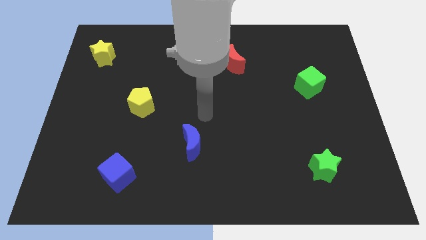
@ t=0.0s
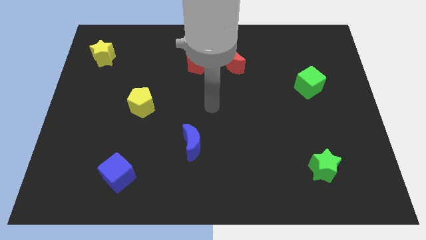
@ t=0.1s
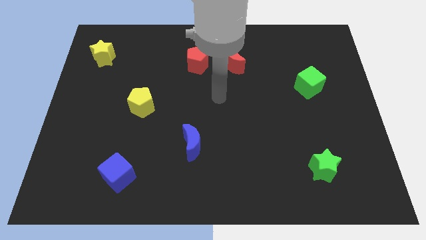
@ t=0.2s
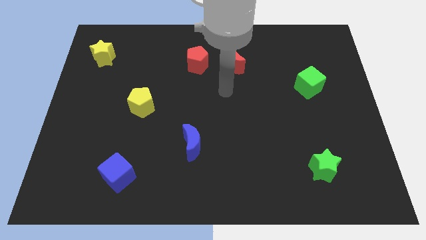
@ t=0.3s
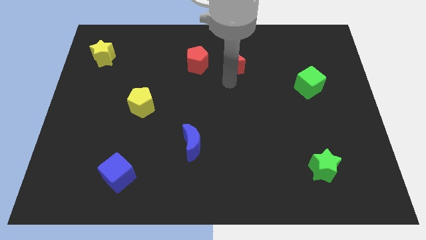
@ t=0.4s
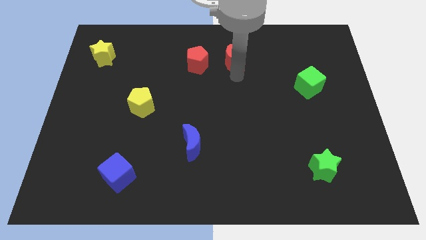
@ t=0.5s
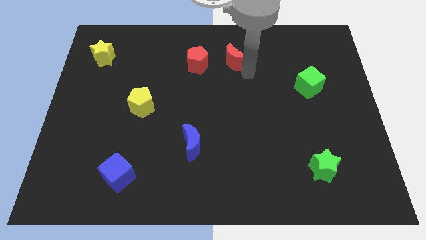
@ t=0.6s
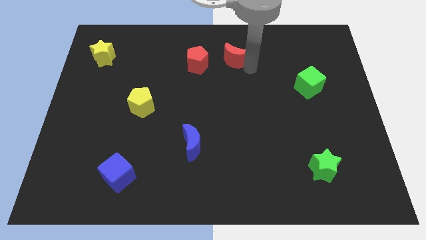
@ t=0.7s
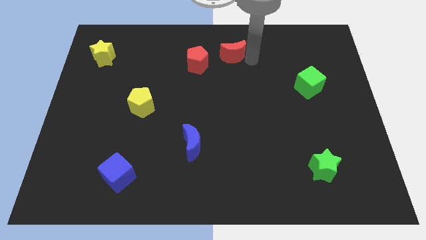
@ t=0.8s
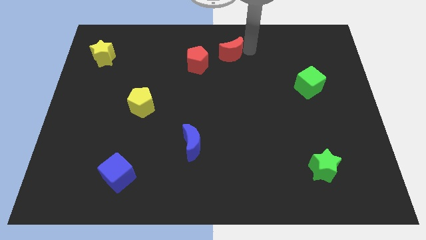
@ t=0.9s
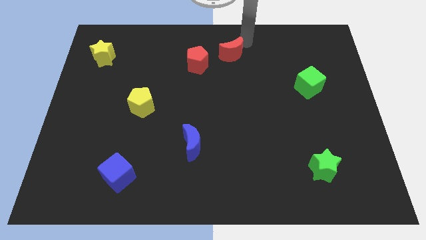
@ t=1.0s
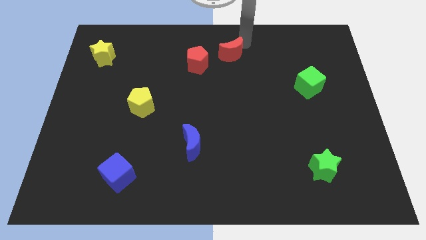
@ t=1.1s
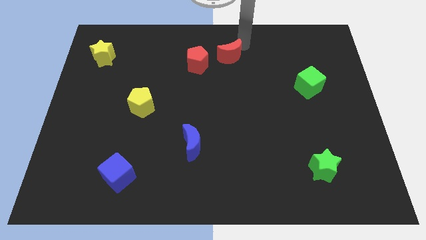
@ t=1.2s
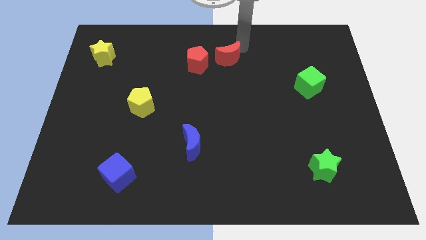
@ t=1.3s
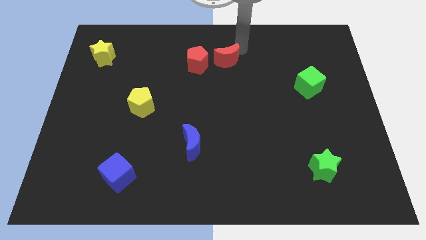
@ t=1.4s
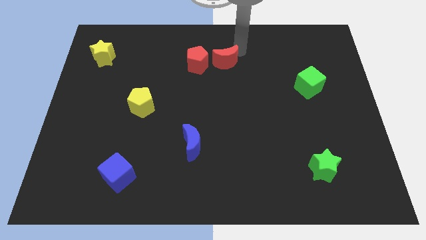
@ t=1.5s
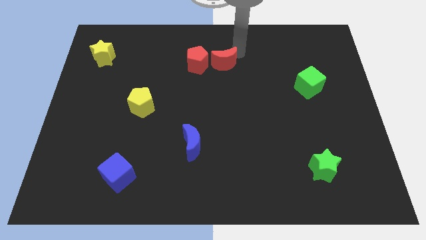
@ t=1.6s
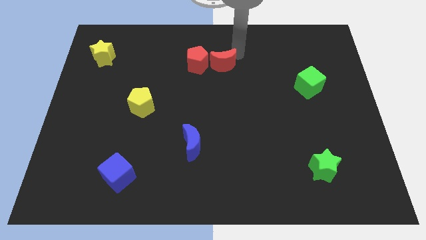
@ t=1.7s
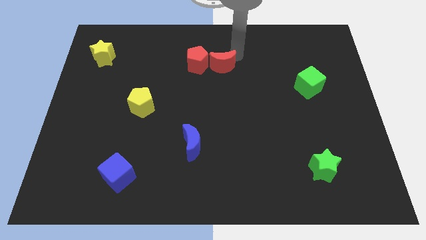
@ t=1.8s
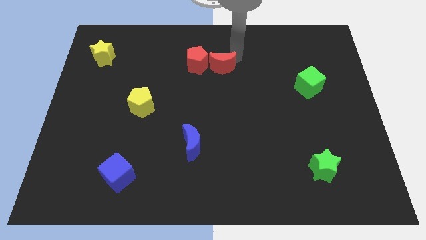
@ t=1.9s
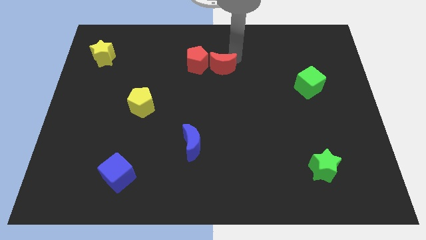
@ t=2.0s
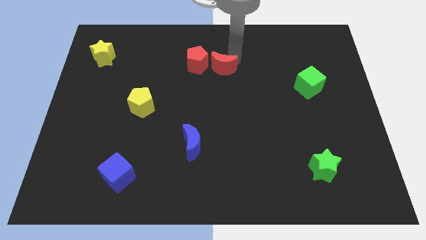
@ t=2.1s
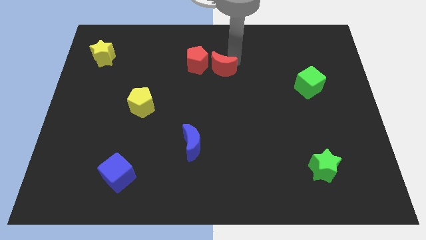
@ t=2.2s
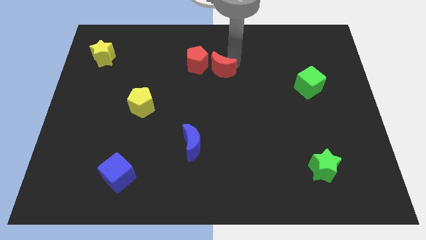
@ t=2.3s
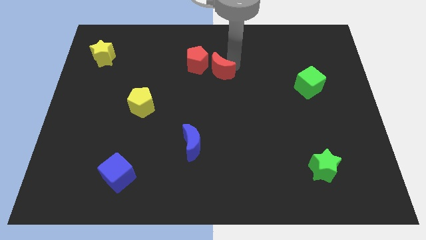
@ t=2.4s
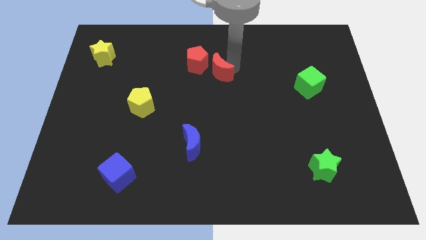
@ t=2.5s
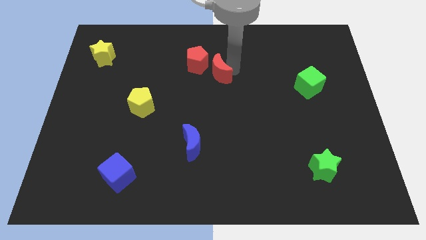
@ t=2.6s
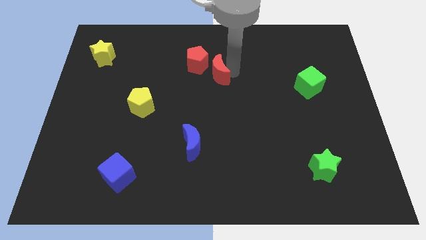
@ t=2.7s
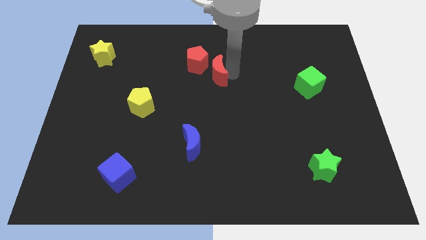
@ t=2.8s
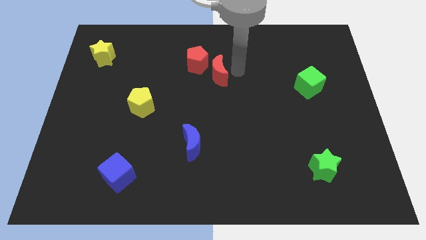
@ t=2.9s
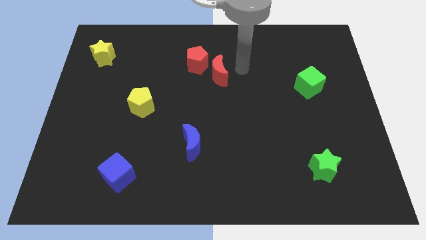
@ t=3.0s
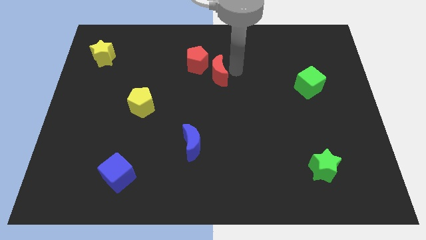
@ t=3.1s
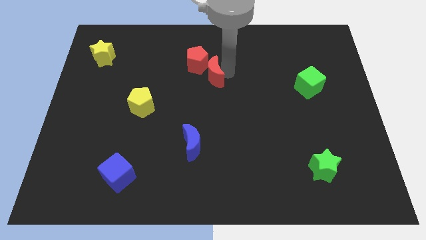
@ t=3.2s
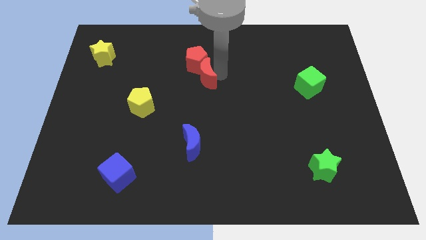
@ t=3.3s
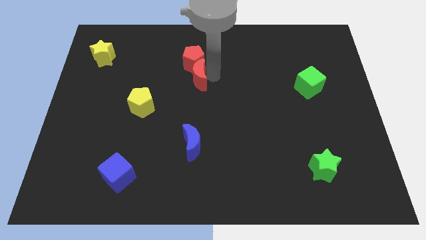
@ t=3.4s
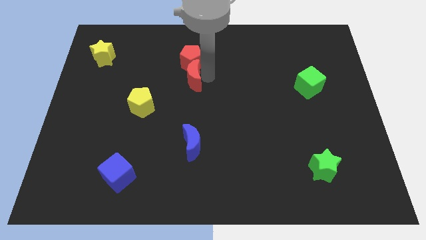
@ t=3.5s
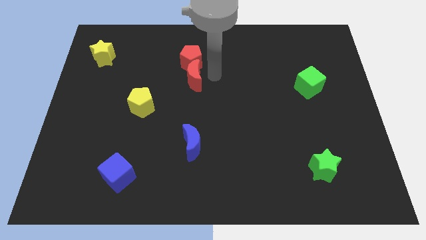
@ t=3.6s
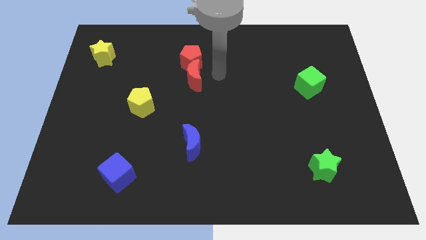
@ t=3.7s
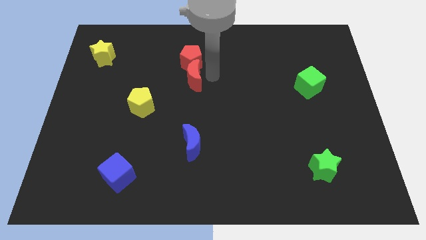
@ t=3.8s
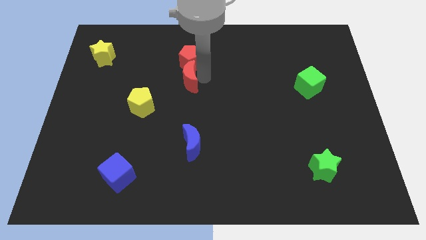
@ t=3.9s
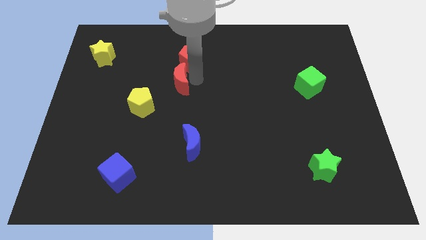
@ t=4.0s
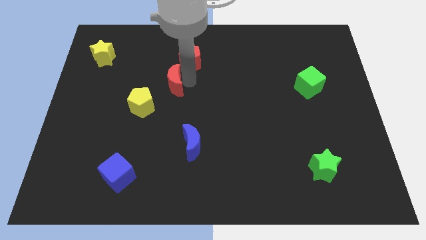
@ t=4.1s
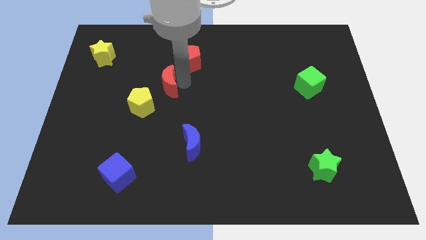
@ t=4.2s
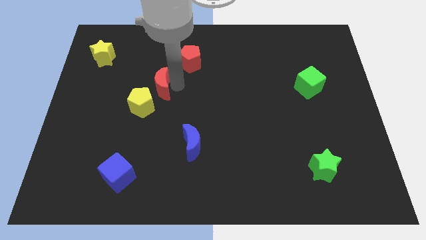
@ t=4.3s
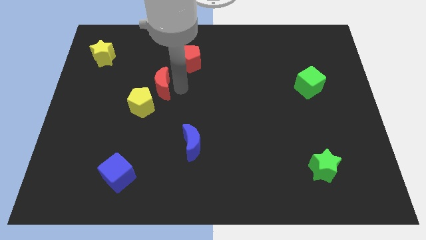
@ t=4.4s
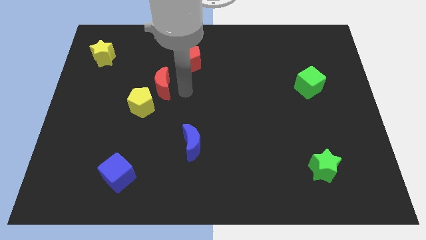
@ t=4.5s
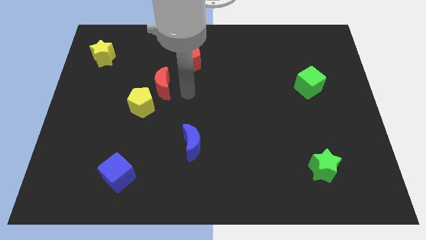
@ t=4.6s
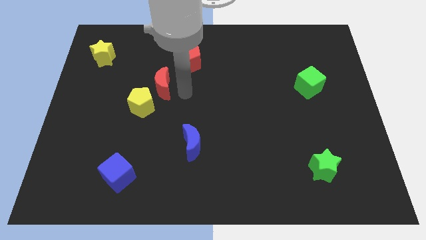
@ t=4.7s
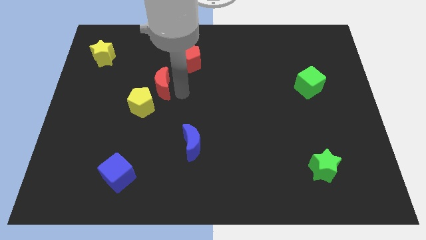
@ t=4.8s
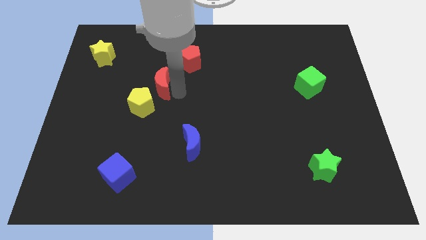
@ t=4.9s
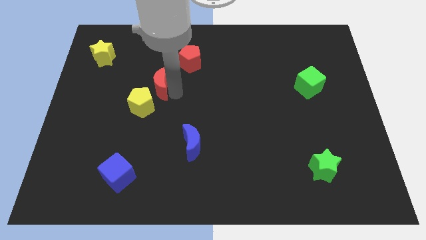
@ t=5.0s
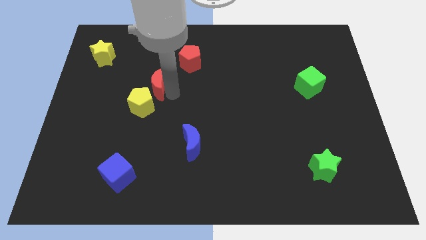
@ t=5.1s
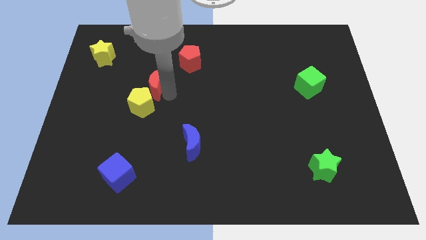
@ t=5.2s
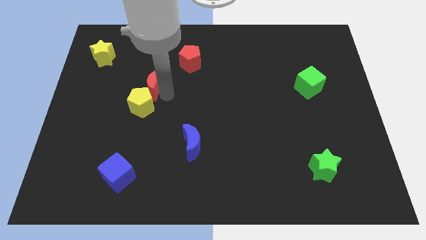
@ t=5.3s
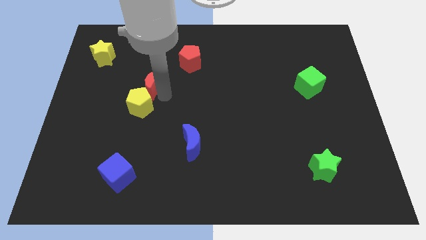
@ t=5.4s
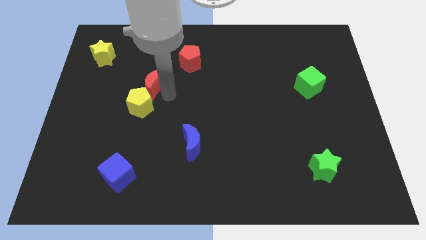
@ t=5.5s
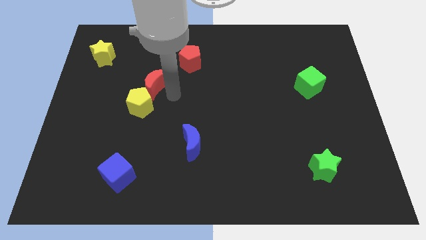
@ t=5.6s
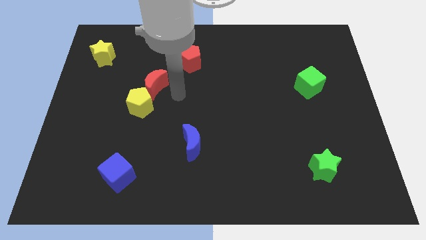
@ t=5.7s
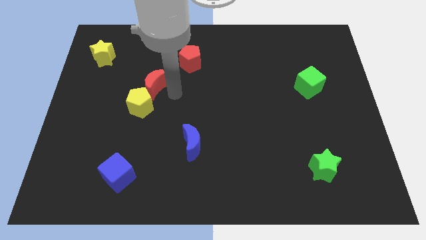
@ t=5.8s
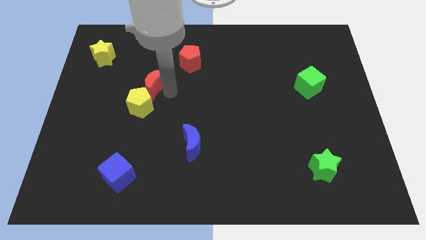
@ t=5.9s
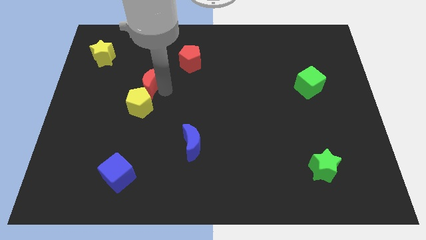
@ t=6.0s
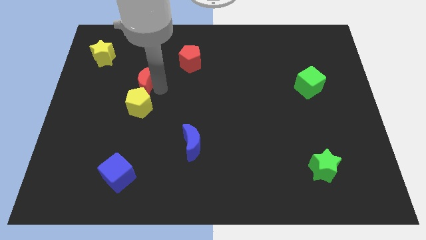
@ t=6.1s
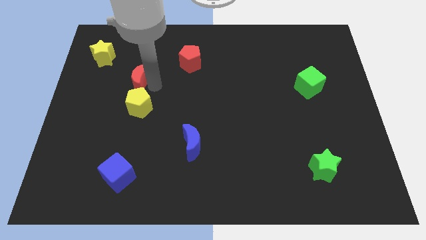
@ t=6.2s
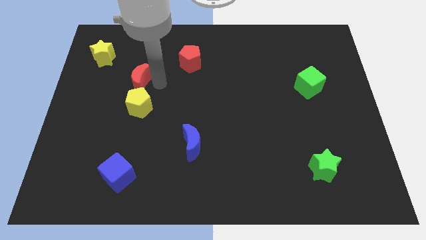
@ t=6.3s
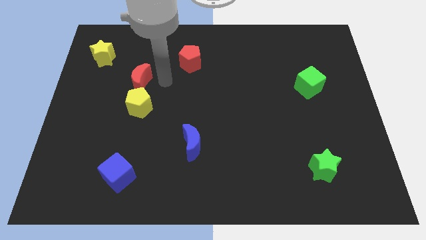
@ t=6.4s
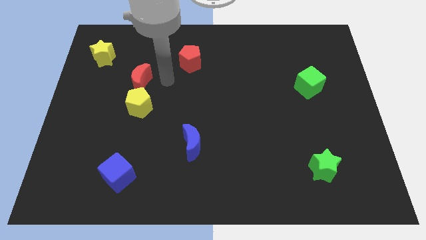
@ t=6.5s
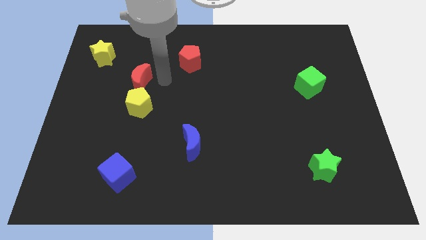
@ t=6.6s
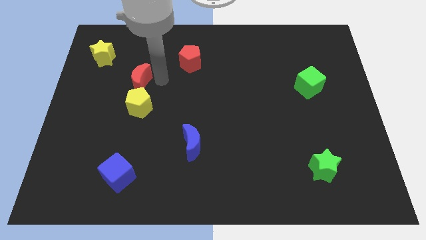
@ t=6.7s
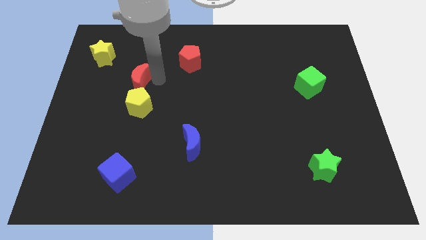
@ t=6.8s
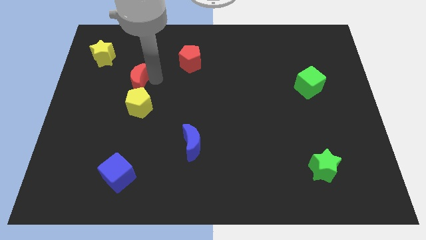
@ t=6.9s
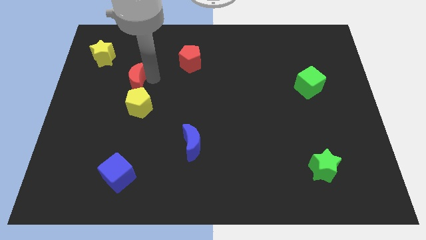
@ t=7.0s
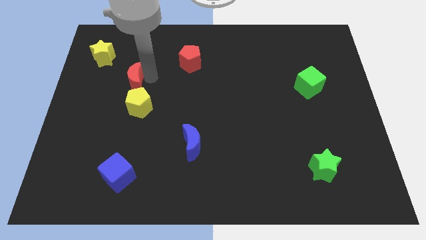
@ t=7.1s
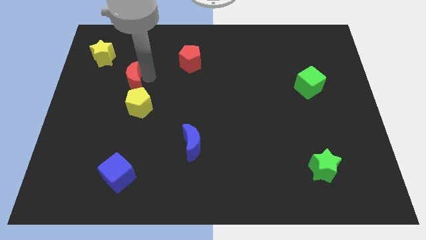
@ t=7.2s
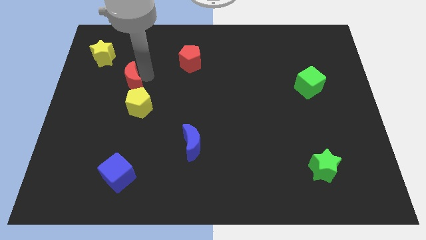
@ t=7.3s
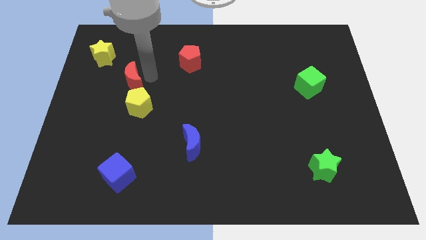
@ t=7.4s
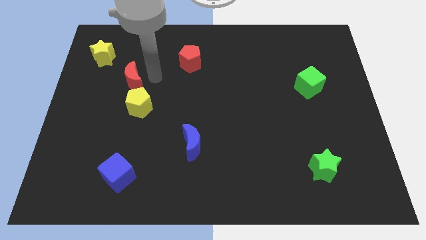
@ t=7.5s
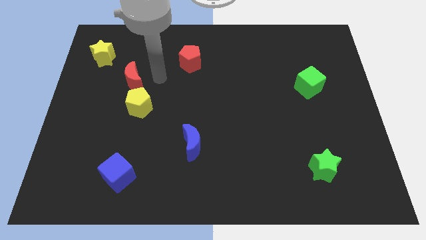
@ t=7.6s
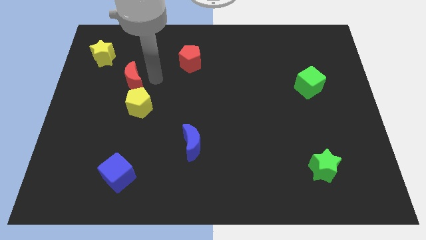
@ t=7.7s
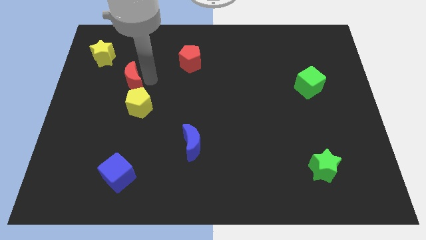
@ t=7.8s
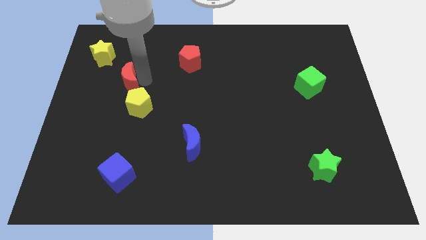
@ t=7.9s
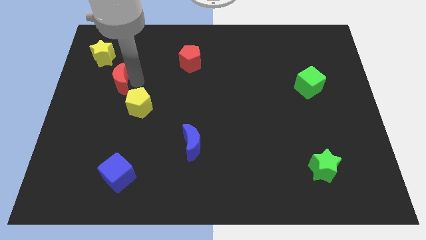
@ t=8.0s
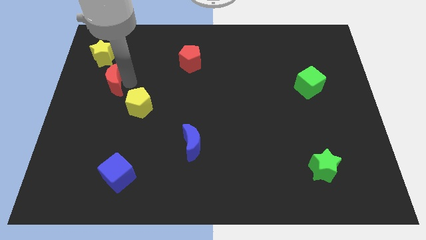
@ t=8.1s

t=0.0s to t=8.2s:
put the red moon to the bottom of the yellow star
